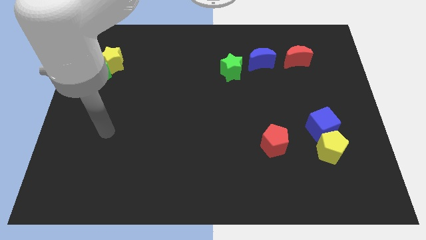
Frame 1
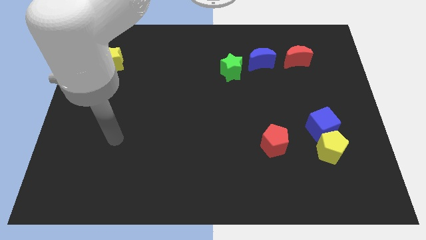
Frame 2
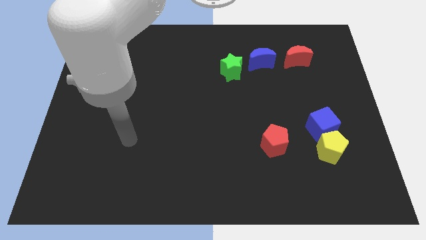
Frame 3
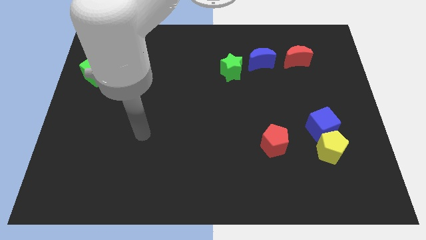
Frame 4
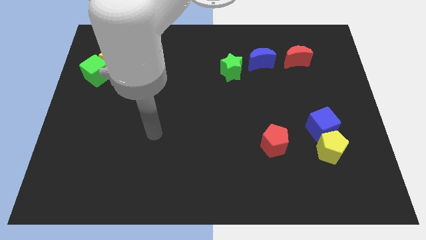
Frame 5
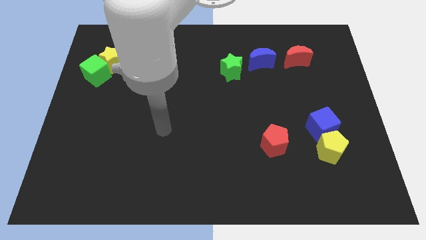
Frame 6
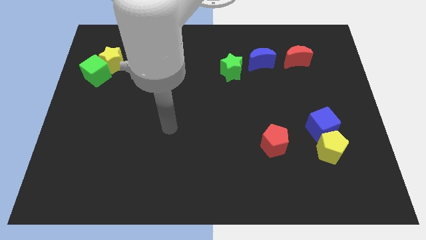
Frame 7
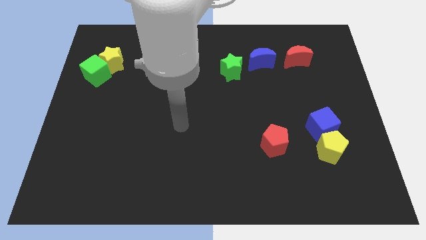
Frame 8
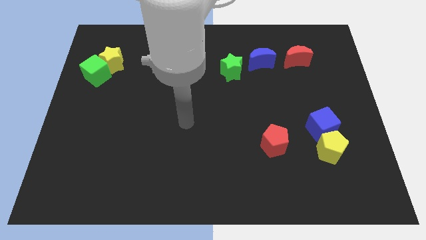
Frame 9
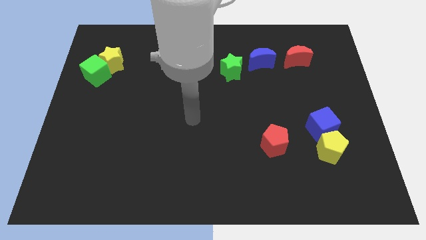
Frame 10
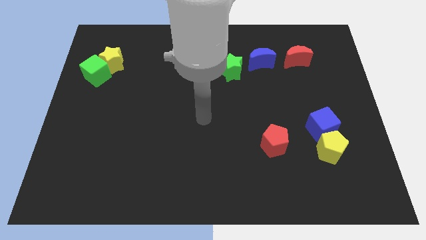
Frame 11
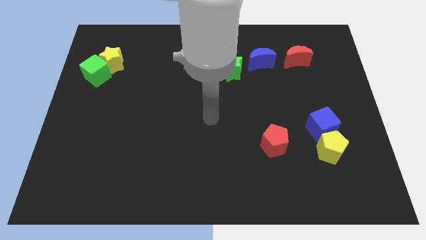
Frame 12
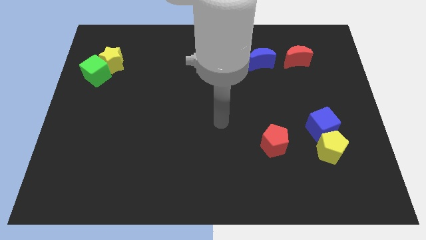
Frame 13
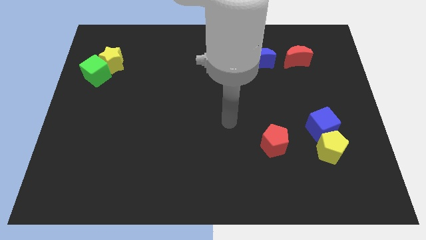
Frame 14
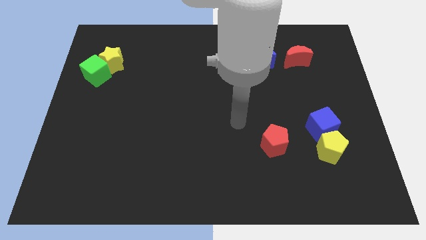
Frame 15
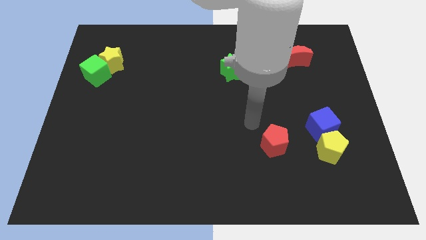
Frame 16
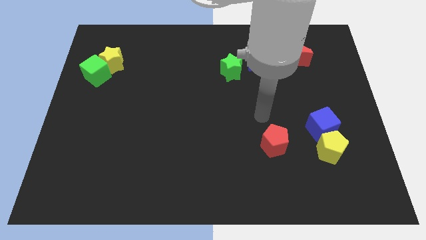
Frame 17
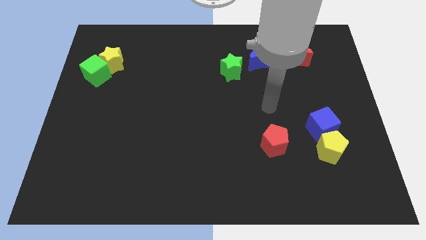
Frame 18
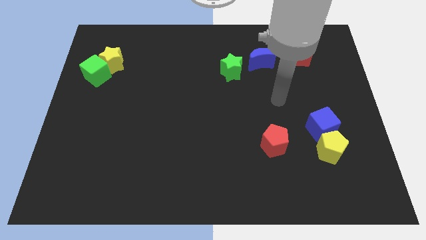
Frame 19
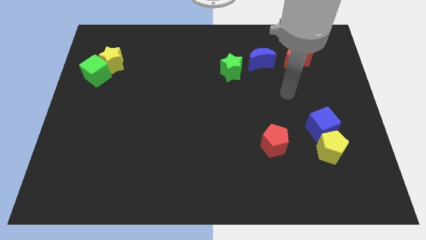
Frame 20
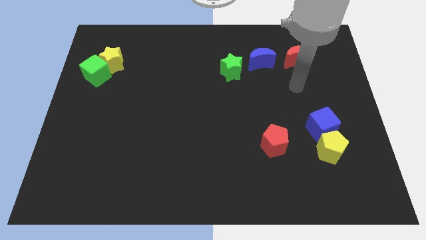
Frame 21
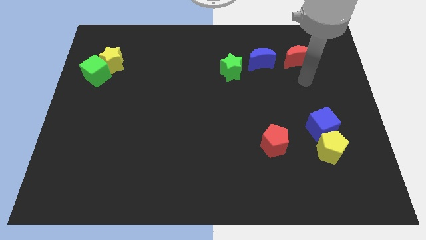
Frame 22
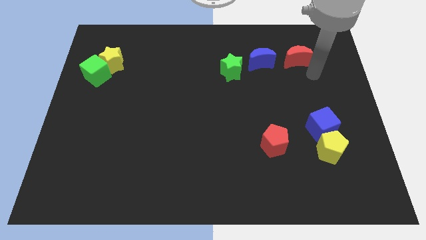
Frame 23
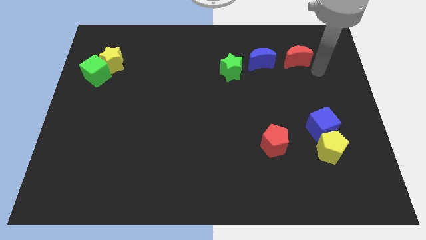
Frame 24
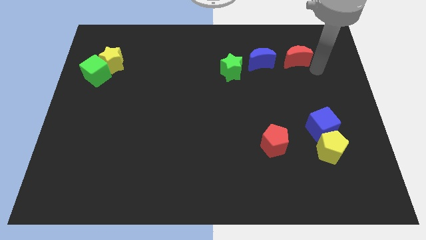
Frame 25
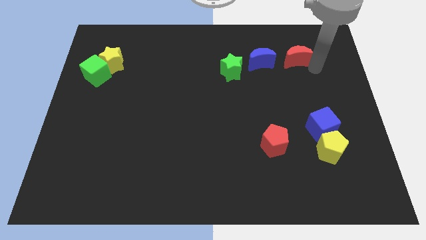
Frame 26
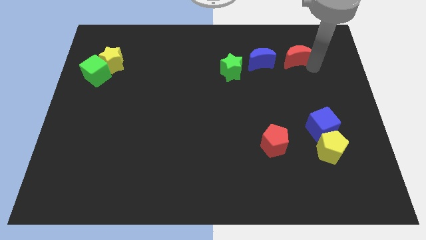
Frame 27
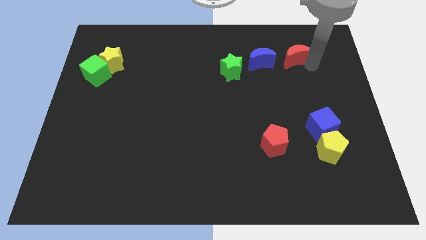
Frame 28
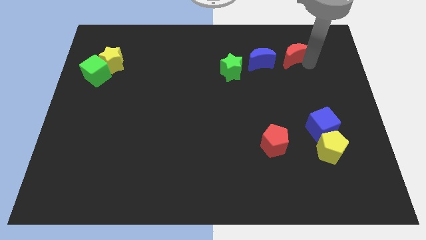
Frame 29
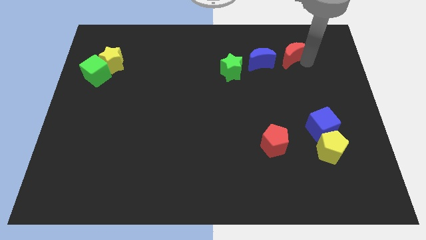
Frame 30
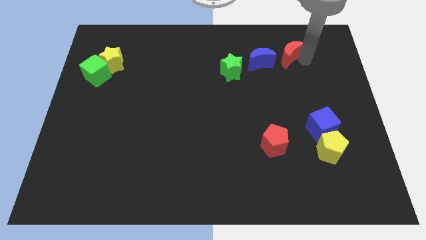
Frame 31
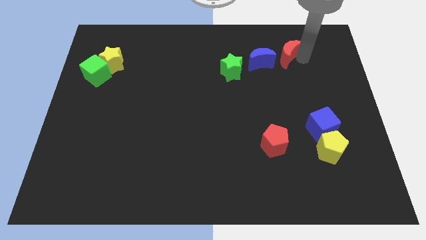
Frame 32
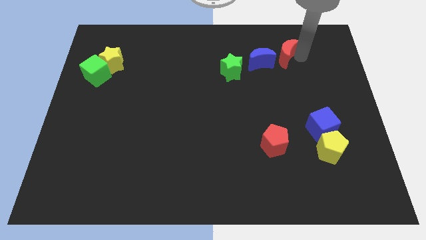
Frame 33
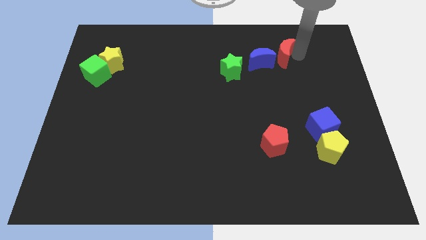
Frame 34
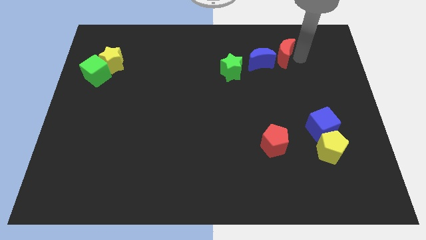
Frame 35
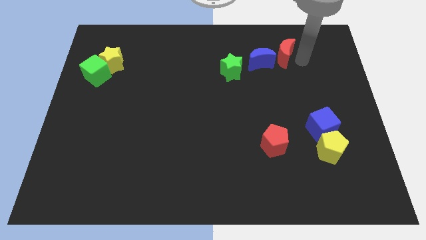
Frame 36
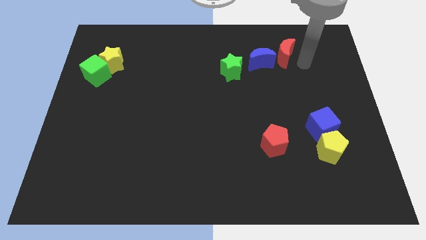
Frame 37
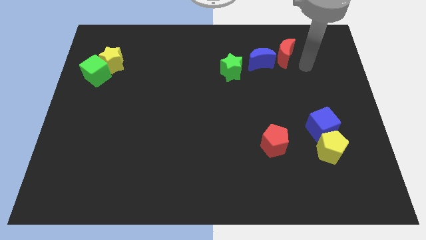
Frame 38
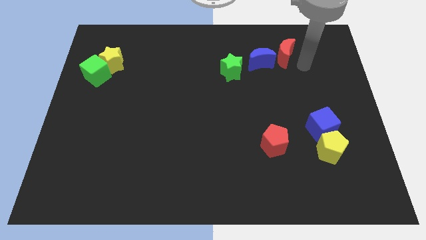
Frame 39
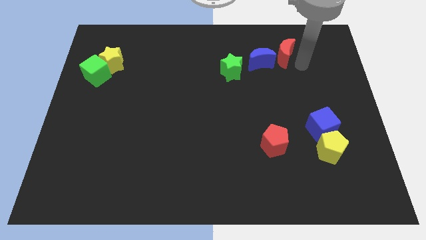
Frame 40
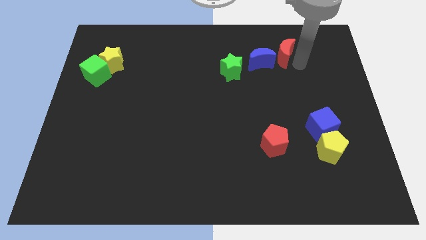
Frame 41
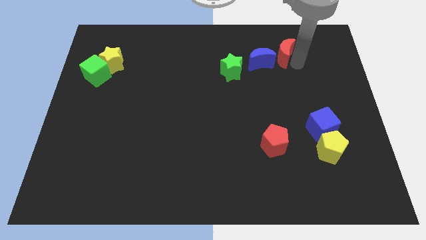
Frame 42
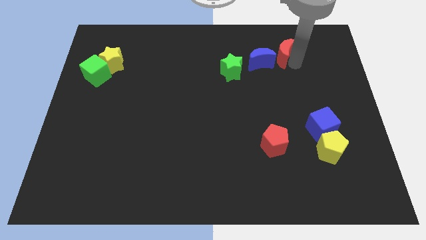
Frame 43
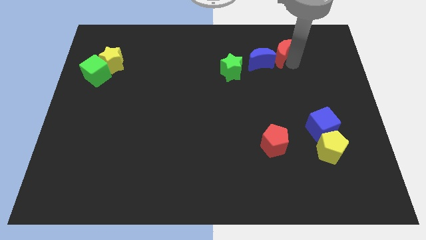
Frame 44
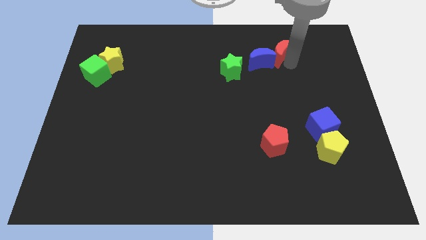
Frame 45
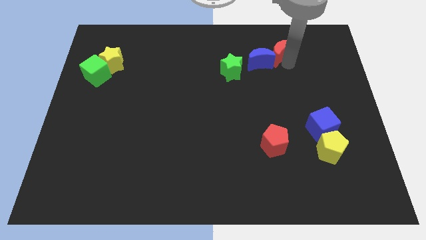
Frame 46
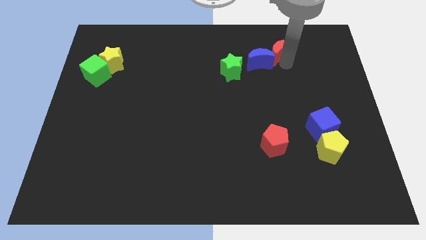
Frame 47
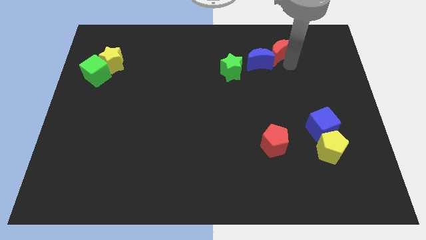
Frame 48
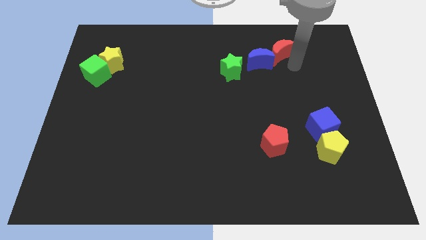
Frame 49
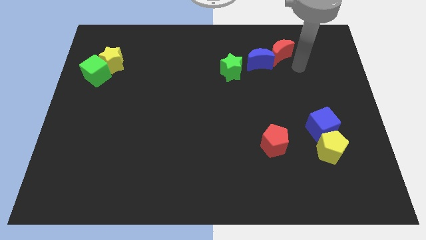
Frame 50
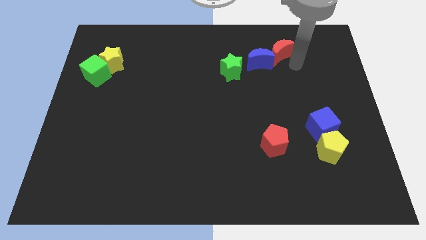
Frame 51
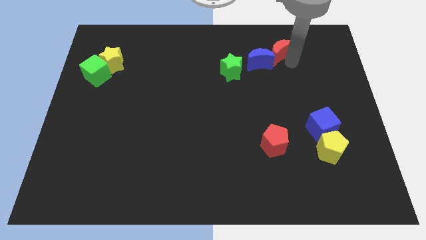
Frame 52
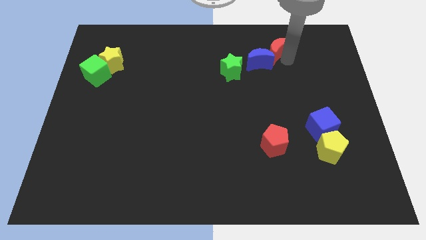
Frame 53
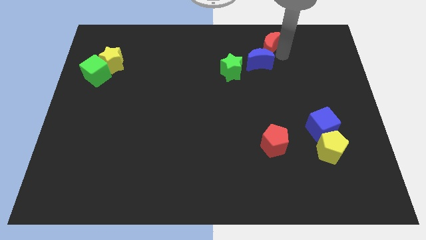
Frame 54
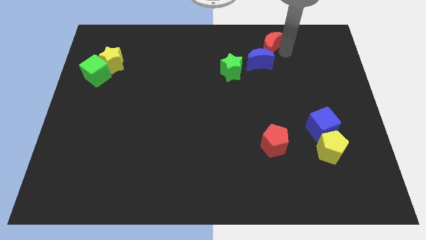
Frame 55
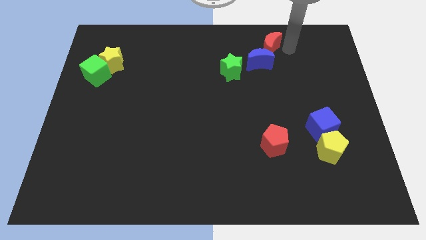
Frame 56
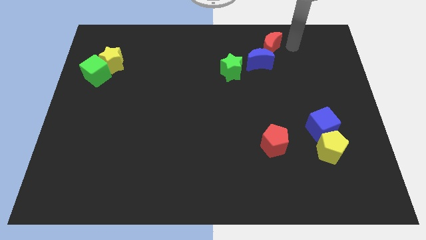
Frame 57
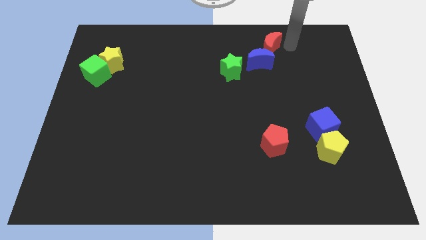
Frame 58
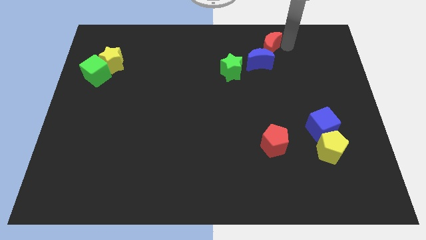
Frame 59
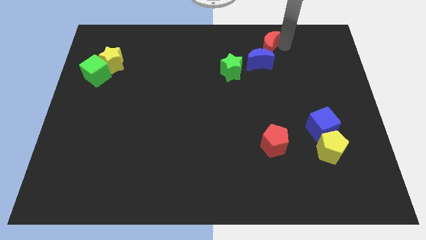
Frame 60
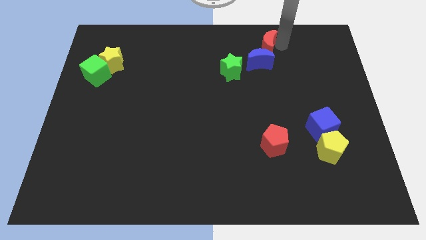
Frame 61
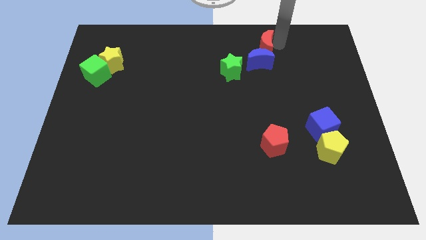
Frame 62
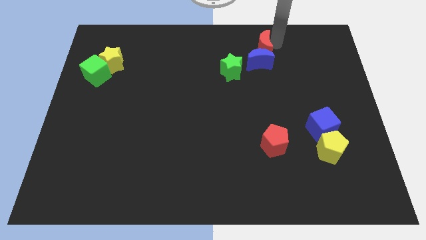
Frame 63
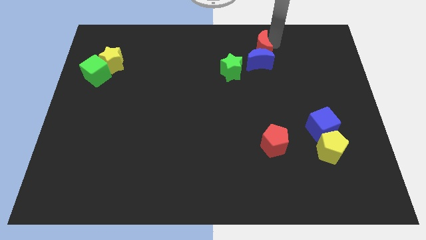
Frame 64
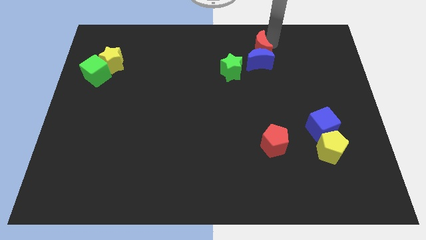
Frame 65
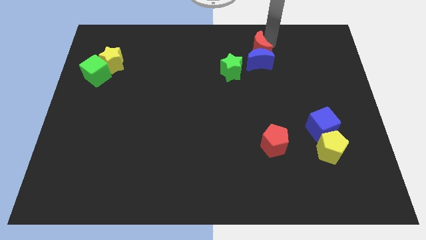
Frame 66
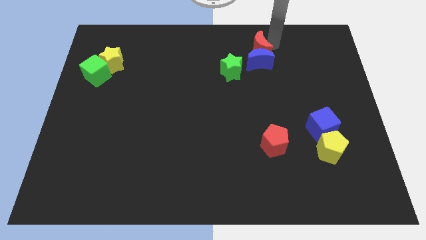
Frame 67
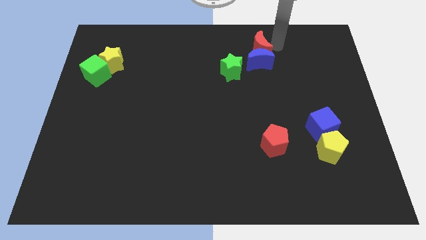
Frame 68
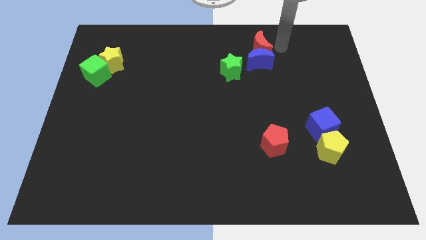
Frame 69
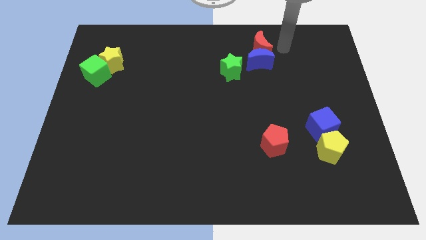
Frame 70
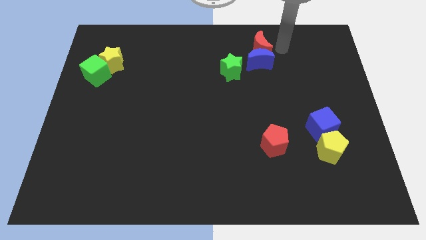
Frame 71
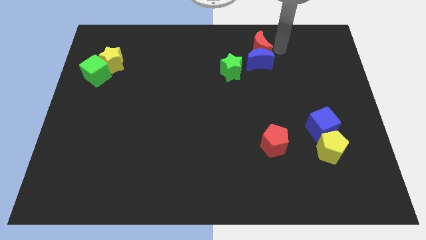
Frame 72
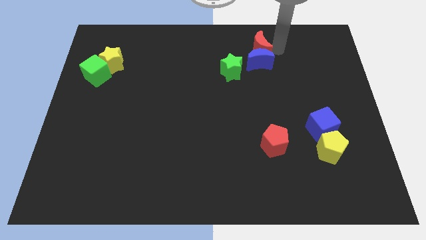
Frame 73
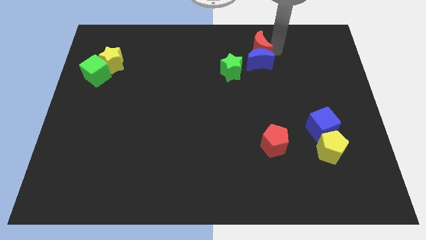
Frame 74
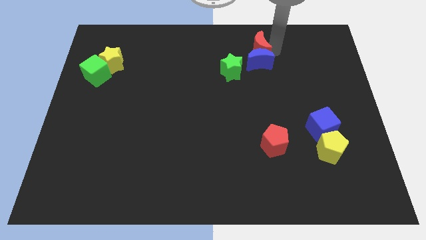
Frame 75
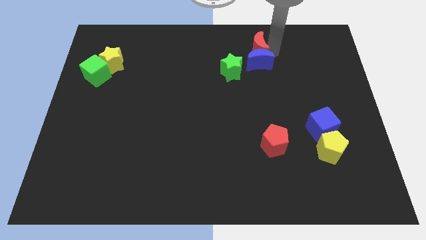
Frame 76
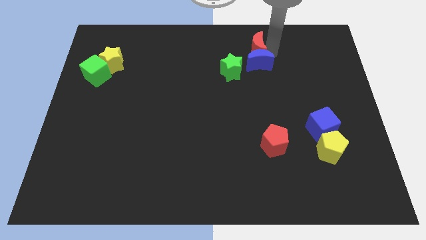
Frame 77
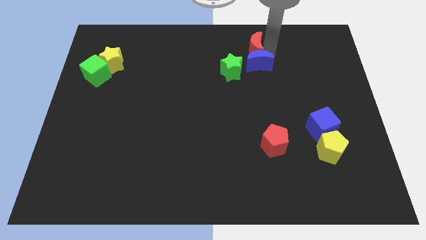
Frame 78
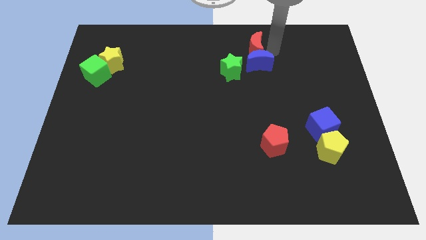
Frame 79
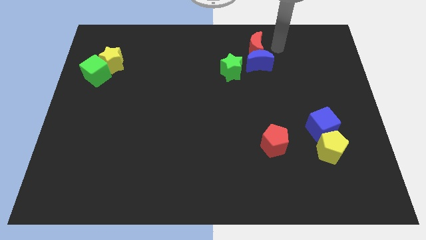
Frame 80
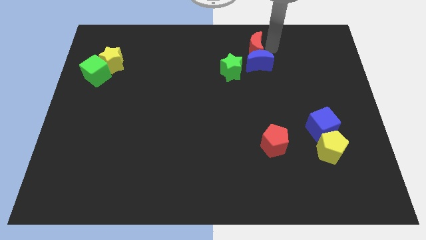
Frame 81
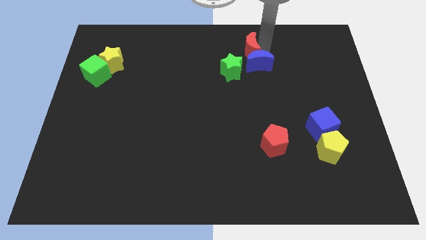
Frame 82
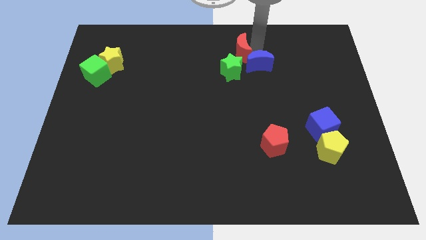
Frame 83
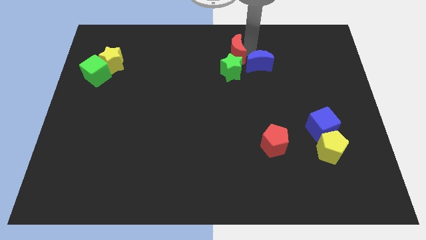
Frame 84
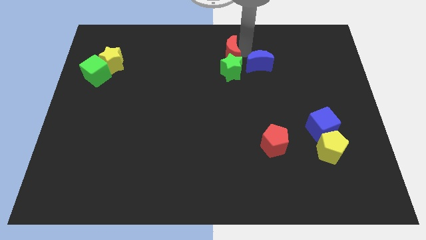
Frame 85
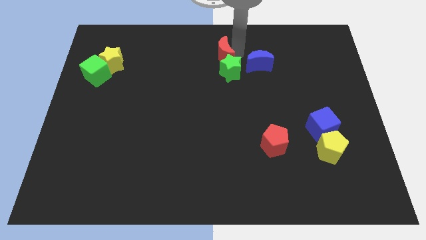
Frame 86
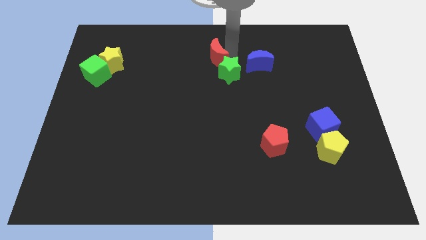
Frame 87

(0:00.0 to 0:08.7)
push the red moon left
